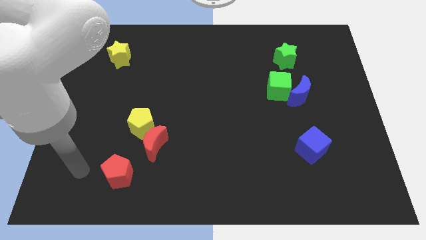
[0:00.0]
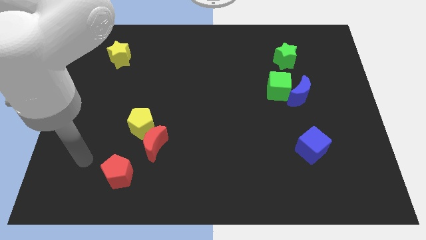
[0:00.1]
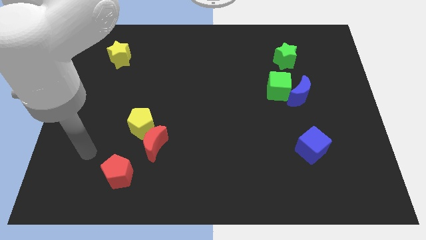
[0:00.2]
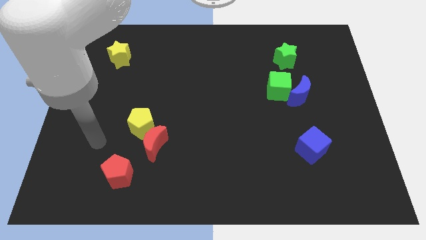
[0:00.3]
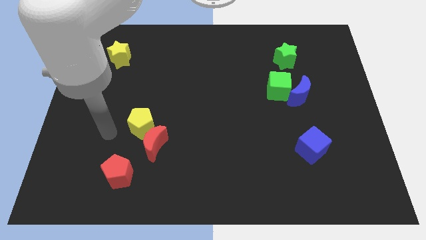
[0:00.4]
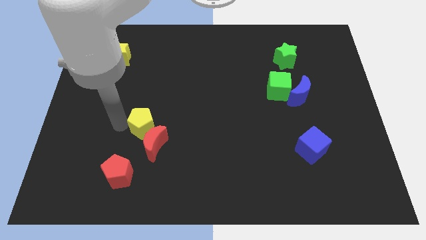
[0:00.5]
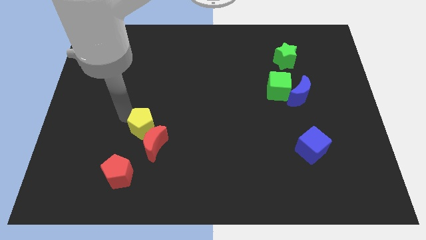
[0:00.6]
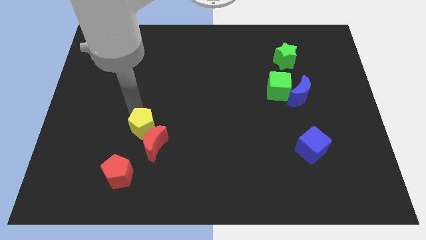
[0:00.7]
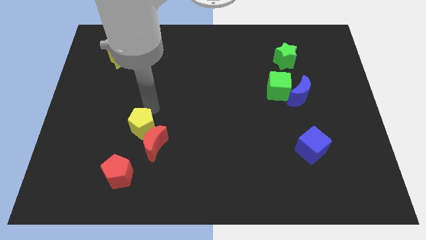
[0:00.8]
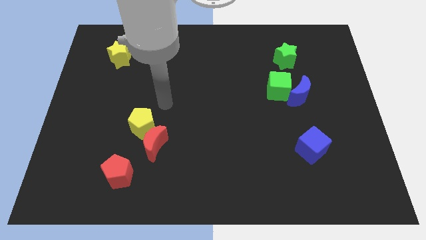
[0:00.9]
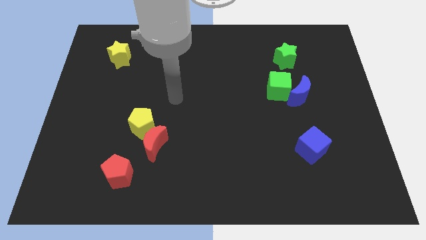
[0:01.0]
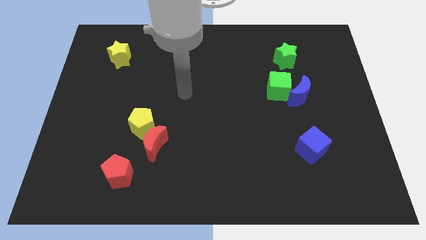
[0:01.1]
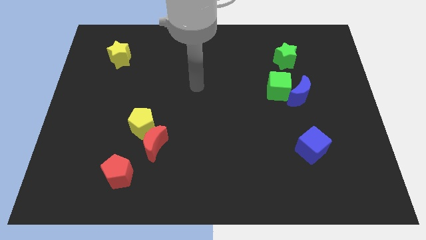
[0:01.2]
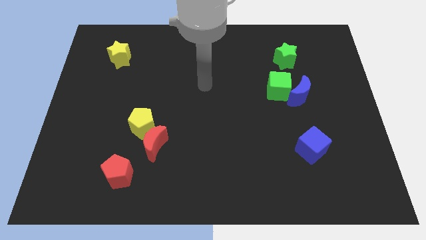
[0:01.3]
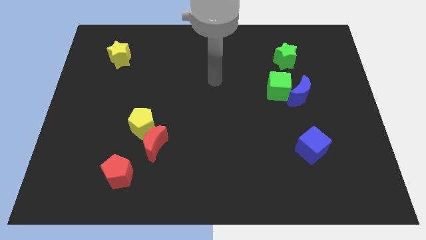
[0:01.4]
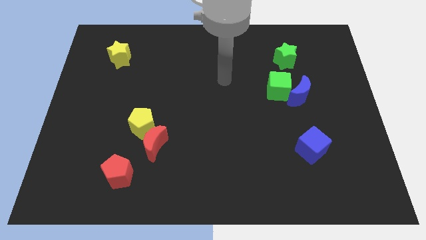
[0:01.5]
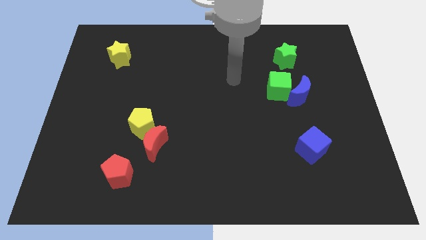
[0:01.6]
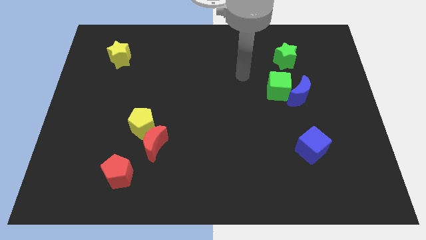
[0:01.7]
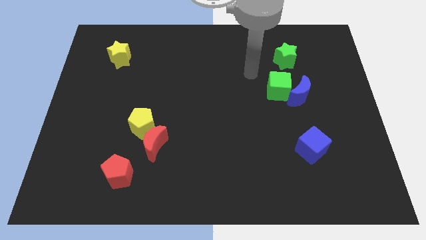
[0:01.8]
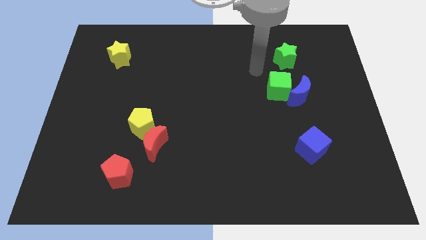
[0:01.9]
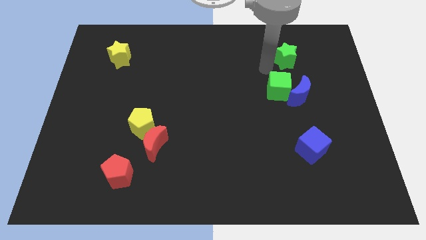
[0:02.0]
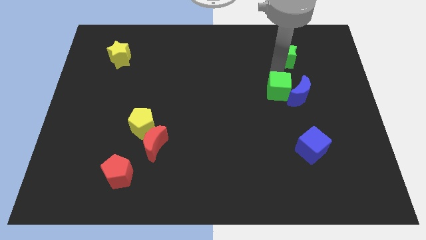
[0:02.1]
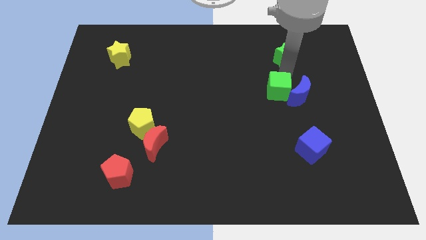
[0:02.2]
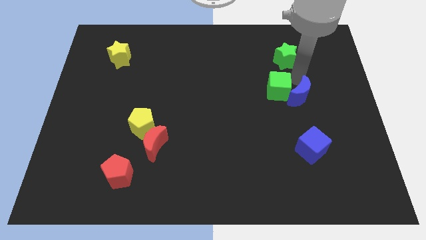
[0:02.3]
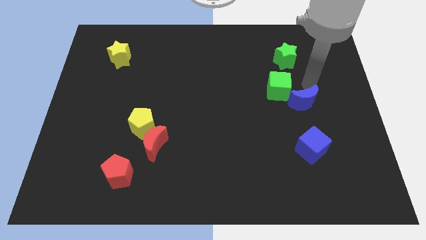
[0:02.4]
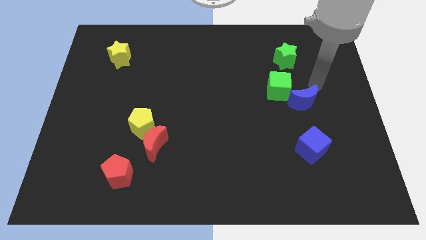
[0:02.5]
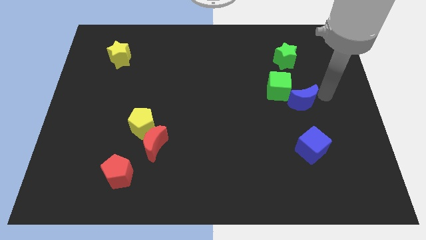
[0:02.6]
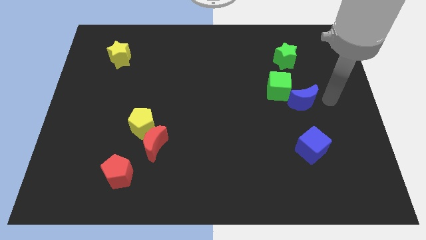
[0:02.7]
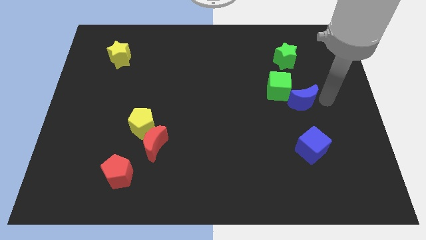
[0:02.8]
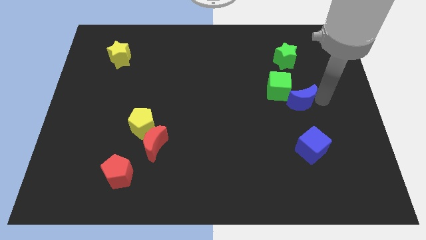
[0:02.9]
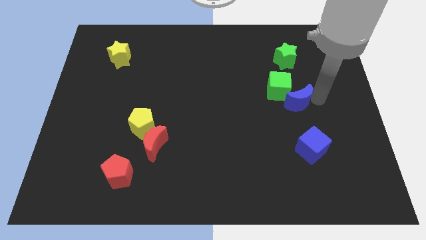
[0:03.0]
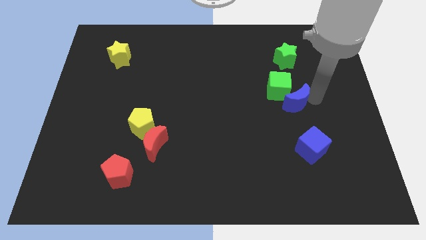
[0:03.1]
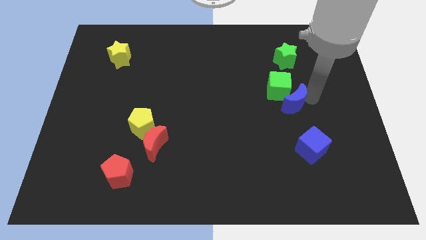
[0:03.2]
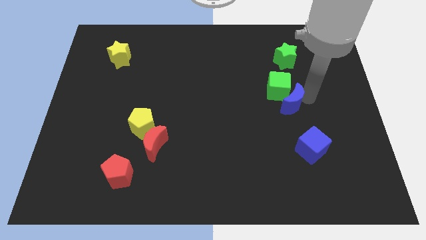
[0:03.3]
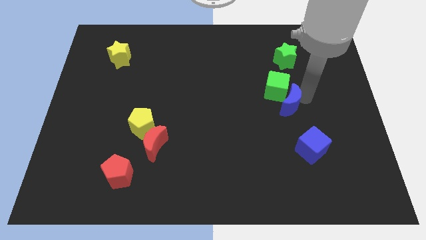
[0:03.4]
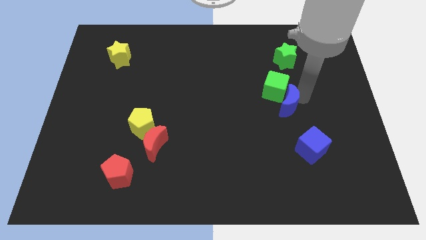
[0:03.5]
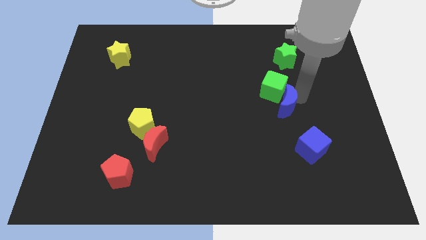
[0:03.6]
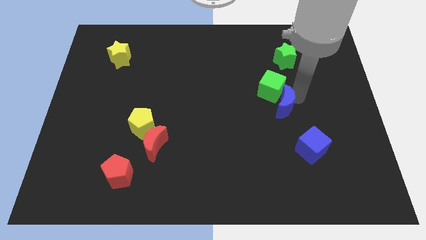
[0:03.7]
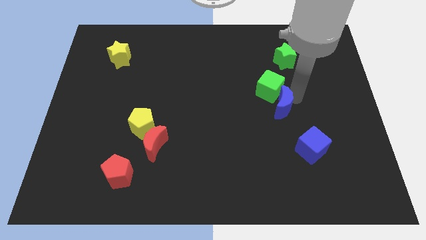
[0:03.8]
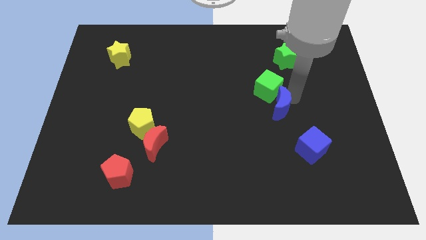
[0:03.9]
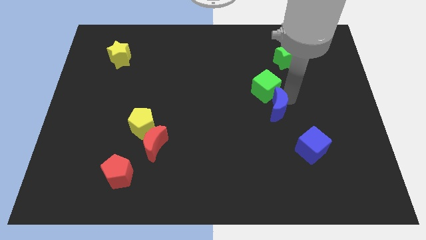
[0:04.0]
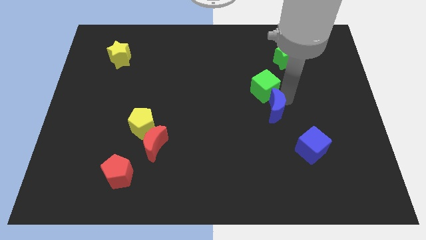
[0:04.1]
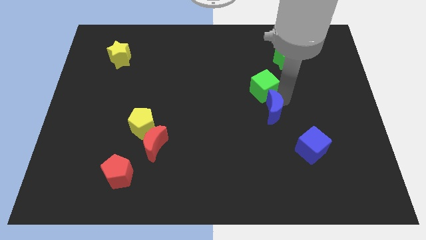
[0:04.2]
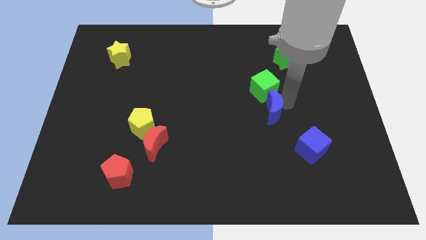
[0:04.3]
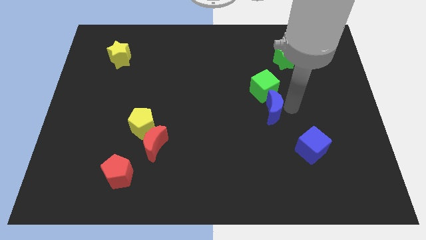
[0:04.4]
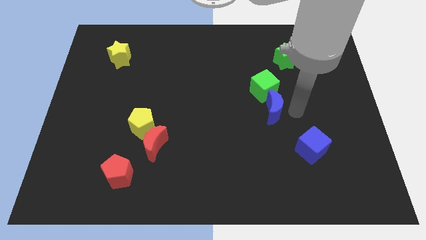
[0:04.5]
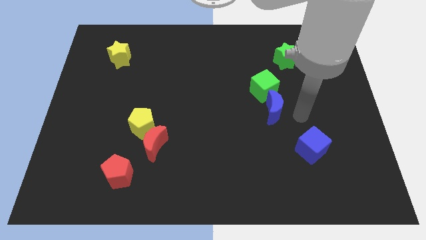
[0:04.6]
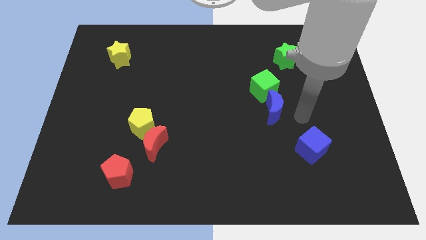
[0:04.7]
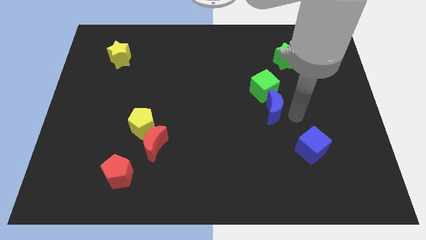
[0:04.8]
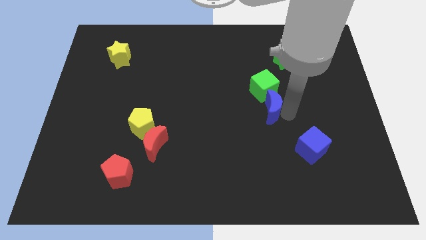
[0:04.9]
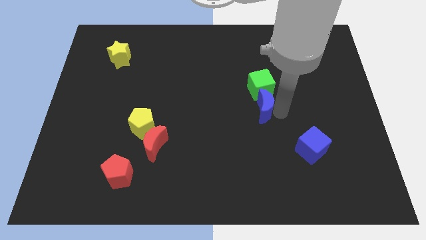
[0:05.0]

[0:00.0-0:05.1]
slightly push the blue moon left

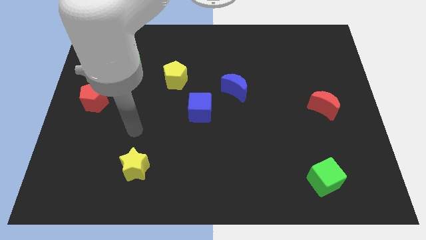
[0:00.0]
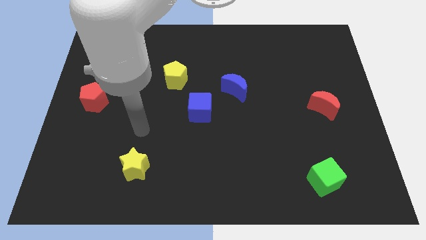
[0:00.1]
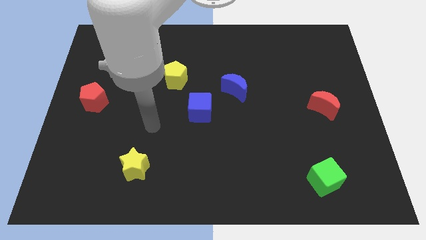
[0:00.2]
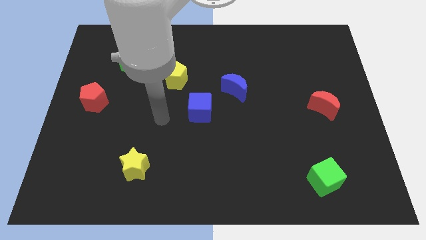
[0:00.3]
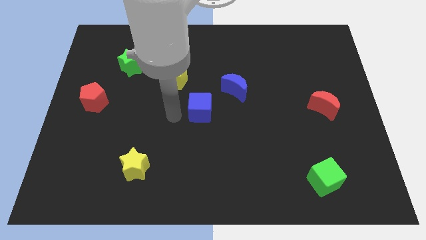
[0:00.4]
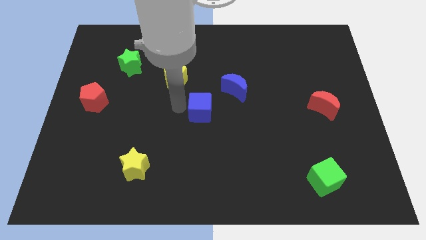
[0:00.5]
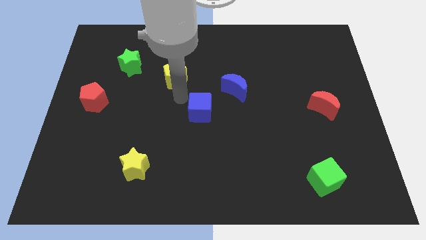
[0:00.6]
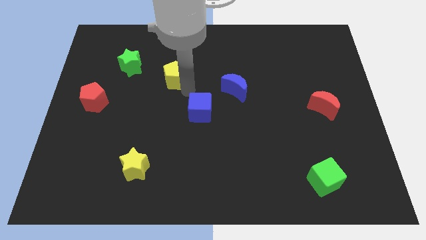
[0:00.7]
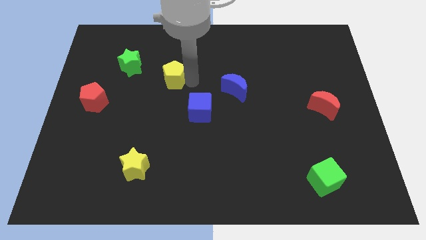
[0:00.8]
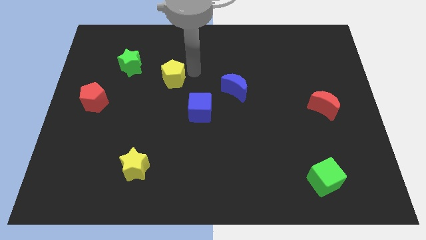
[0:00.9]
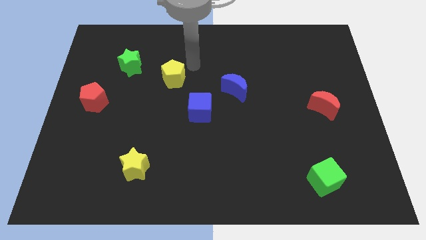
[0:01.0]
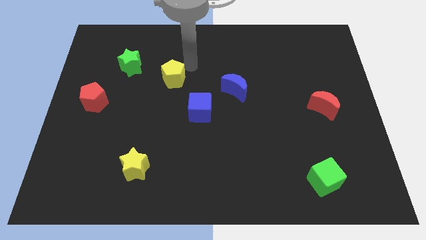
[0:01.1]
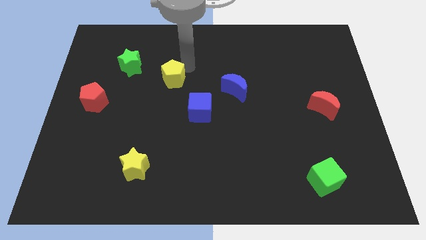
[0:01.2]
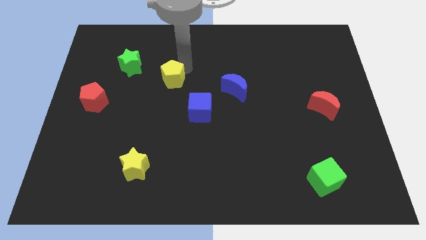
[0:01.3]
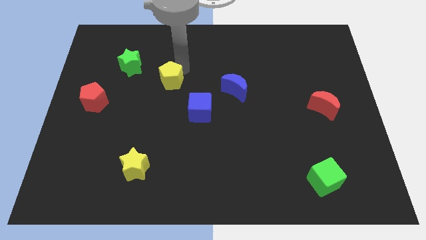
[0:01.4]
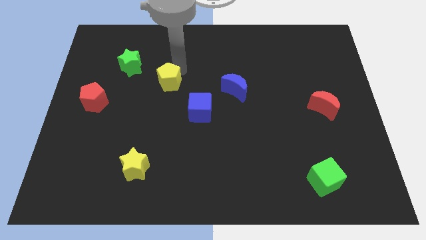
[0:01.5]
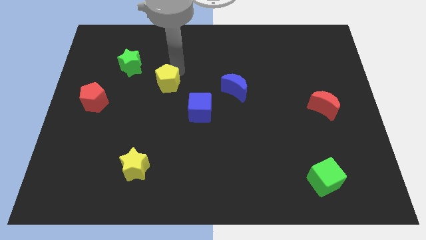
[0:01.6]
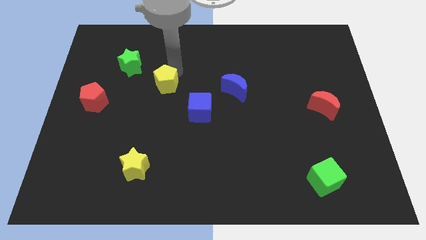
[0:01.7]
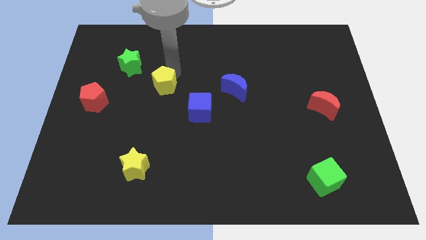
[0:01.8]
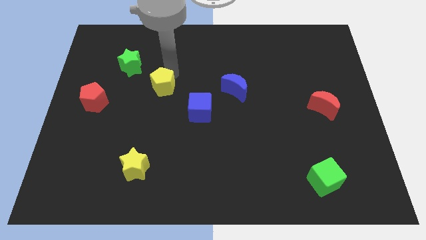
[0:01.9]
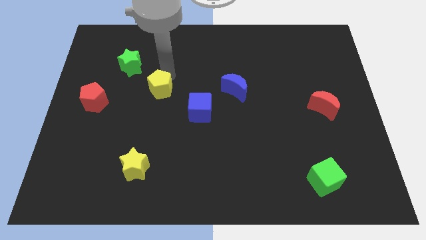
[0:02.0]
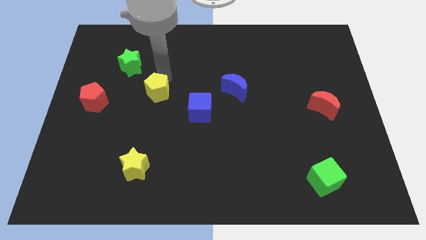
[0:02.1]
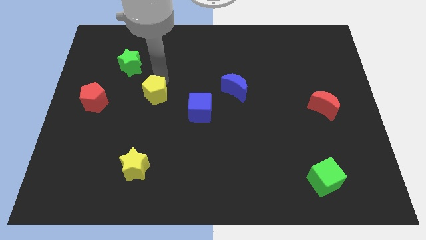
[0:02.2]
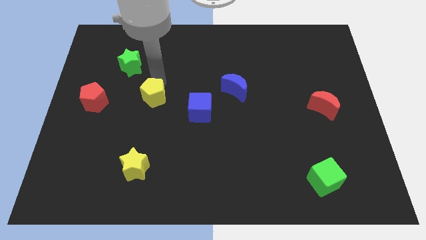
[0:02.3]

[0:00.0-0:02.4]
slightly slide the yellow pentagon down and left diagonally

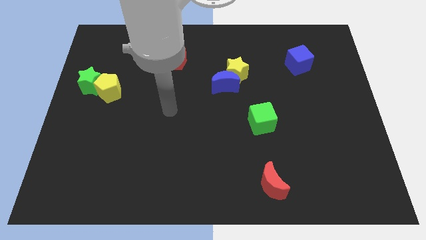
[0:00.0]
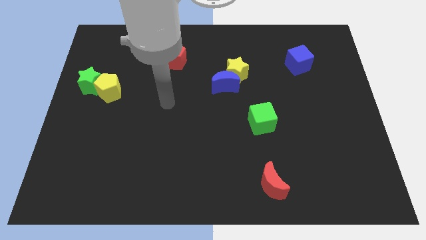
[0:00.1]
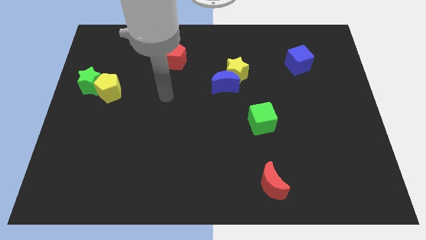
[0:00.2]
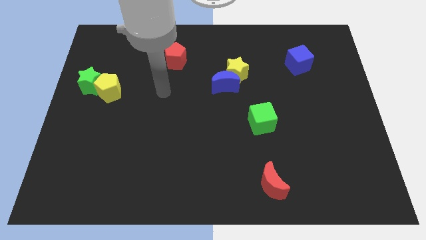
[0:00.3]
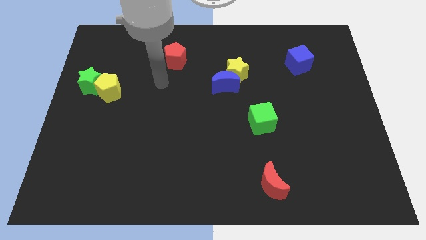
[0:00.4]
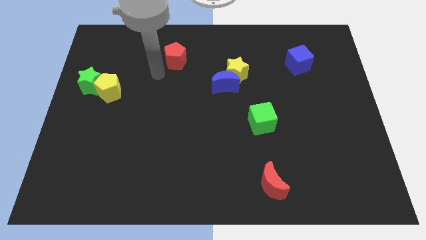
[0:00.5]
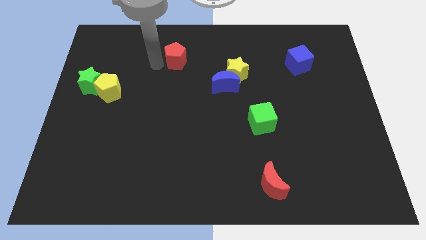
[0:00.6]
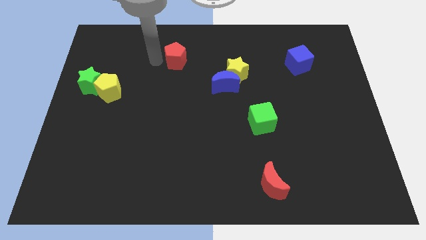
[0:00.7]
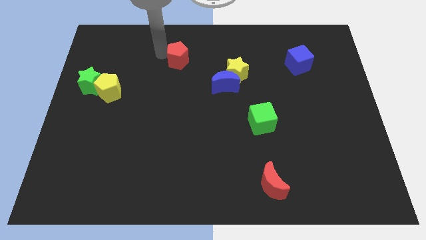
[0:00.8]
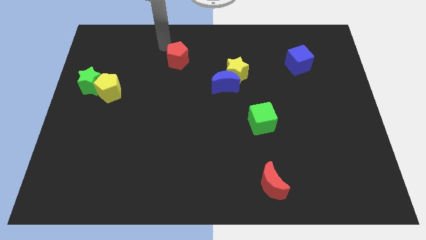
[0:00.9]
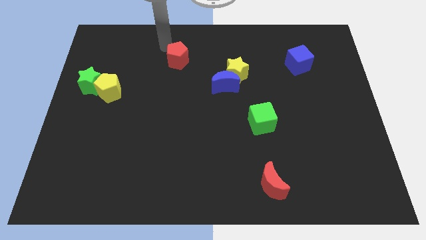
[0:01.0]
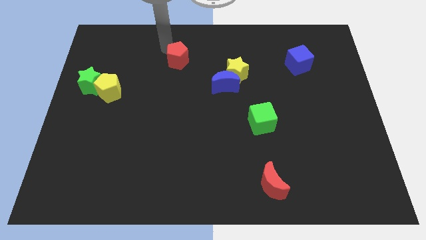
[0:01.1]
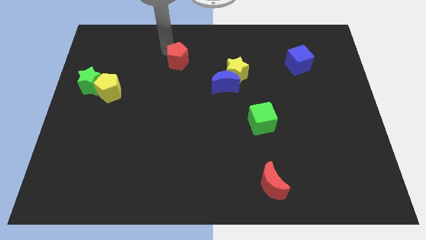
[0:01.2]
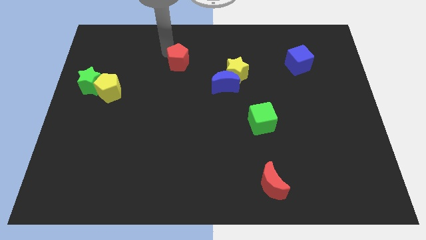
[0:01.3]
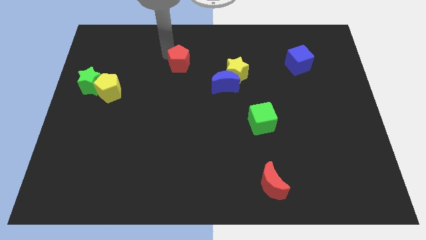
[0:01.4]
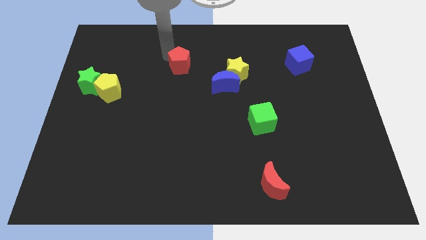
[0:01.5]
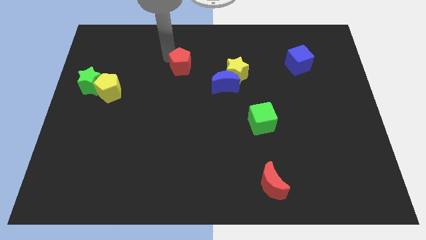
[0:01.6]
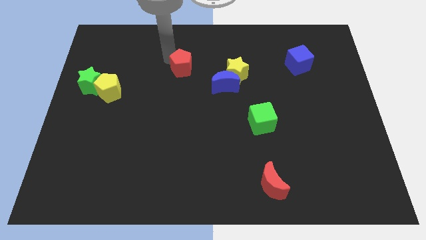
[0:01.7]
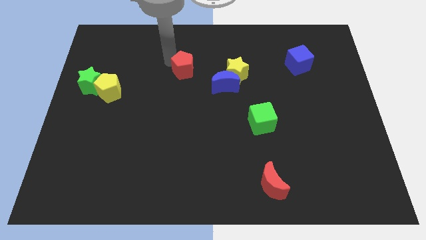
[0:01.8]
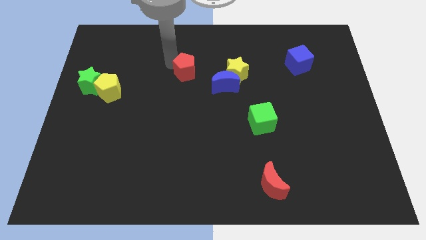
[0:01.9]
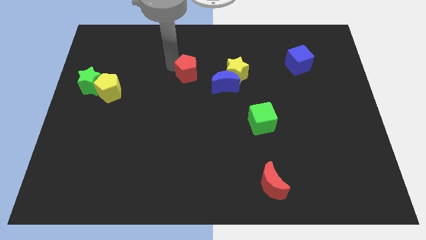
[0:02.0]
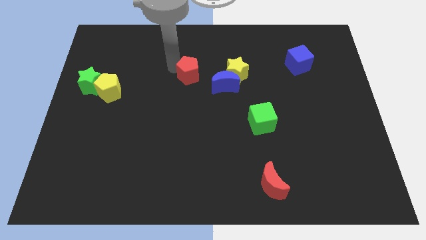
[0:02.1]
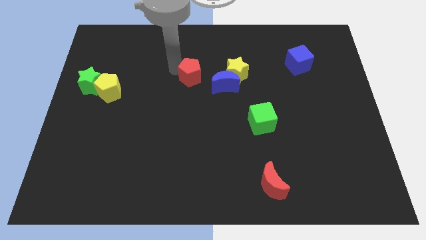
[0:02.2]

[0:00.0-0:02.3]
move the red pentagon diagonally downwards and right a little bit
